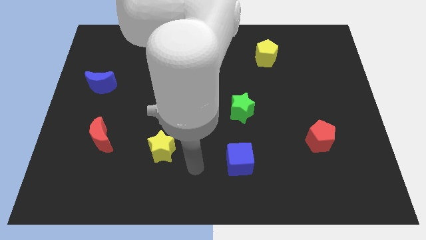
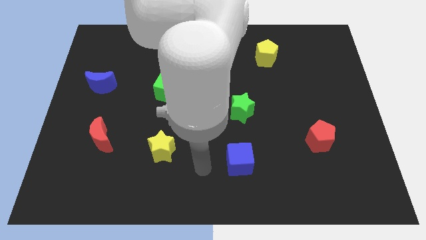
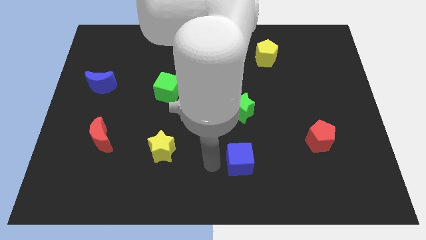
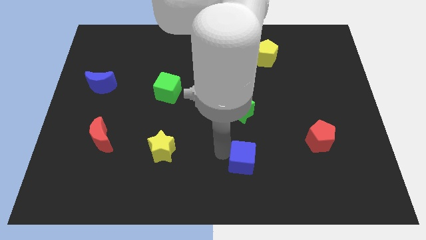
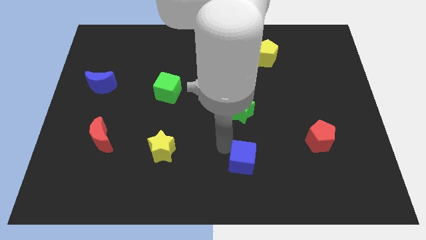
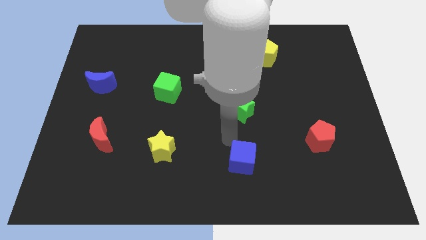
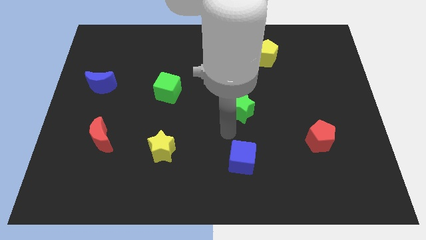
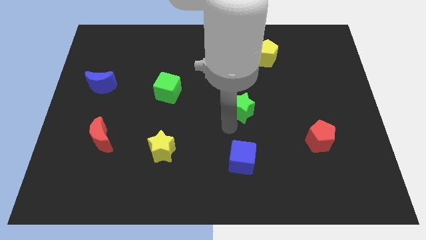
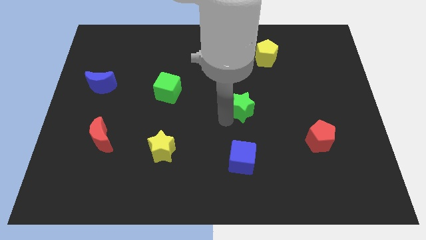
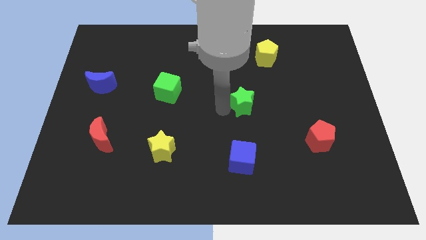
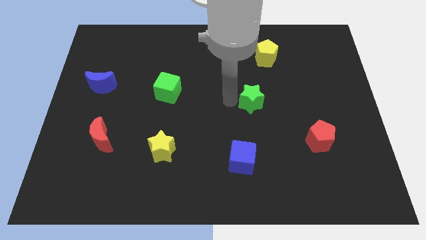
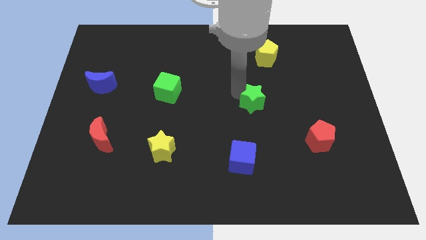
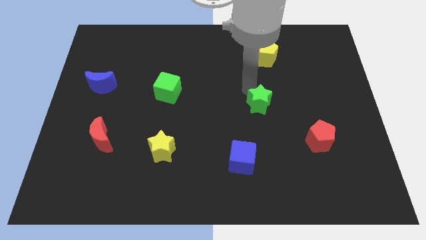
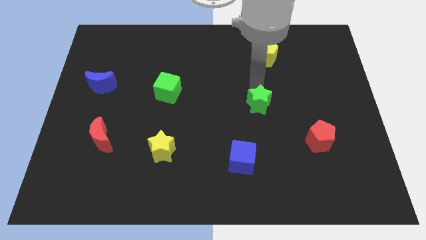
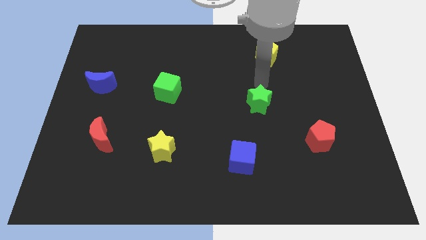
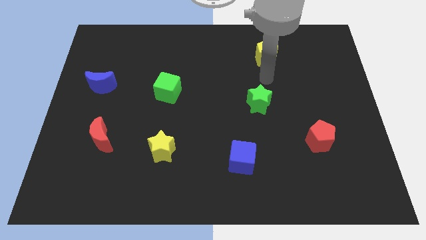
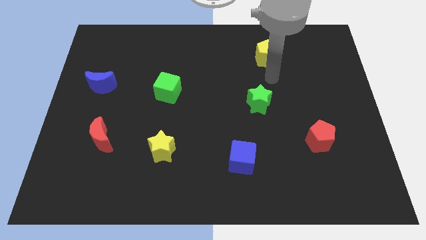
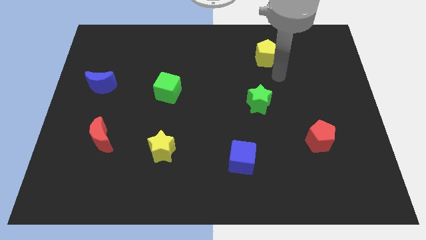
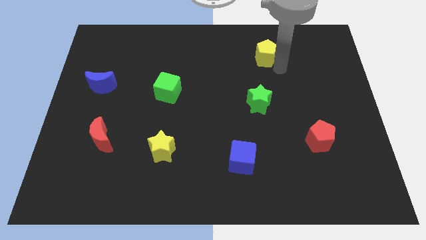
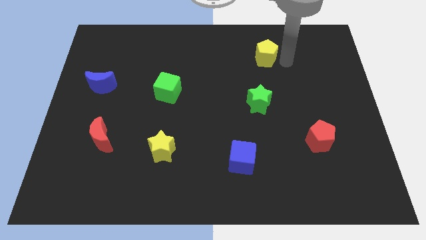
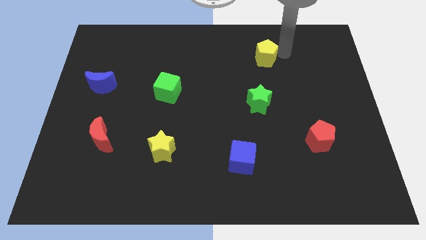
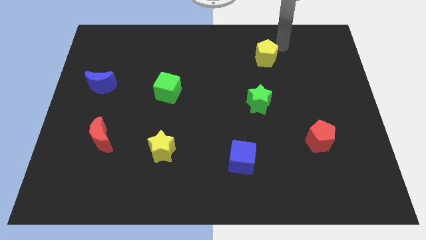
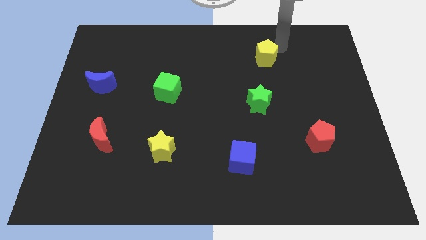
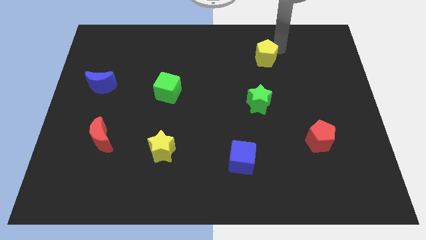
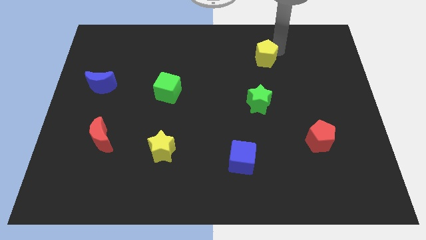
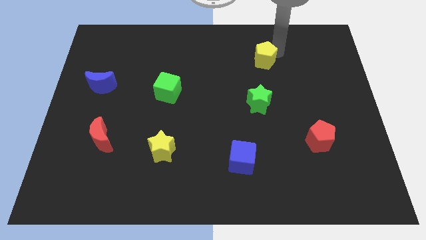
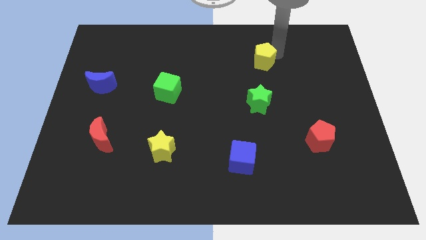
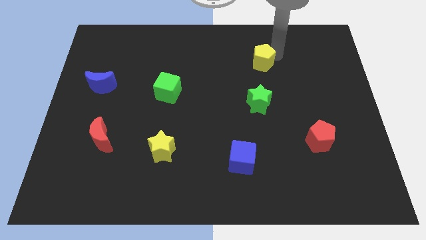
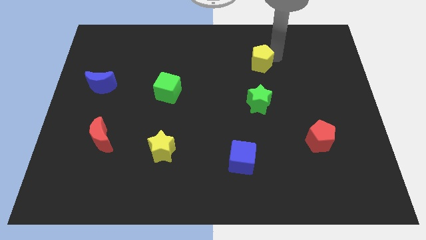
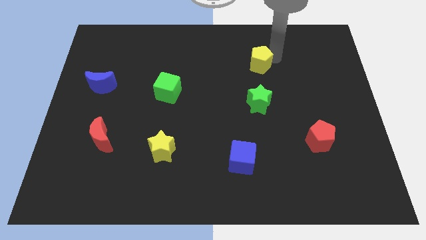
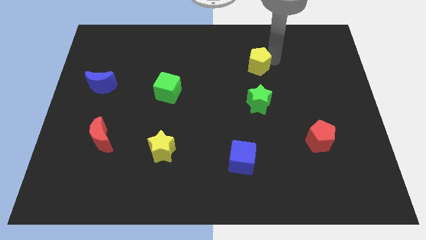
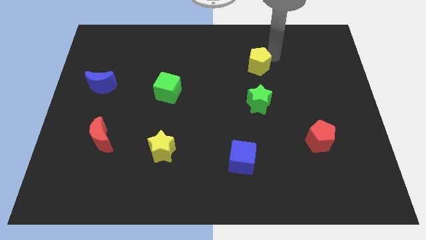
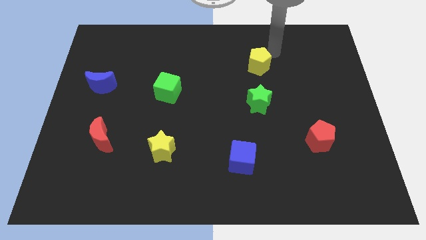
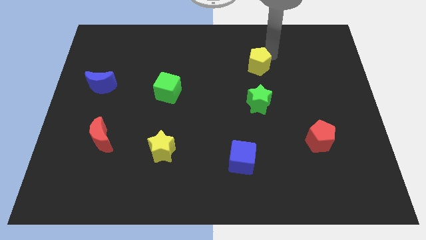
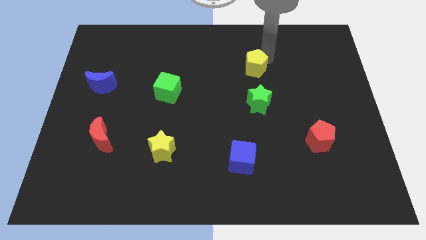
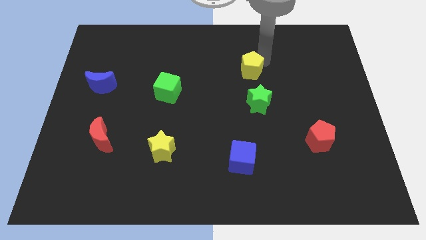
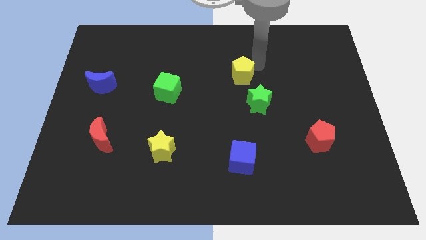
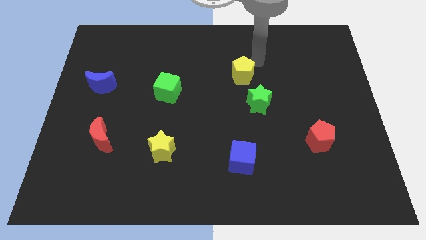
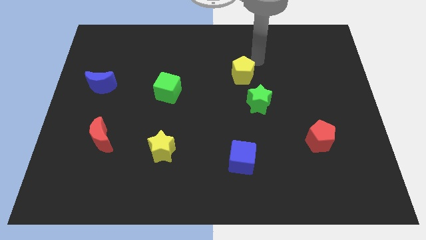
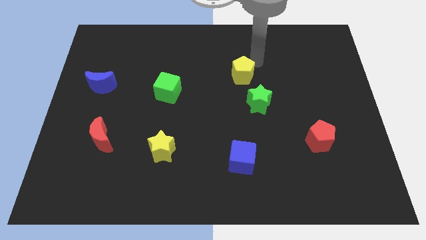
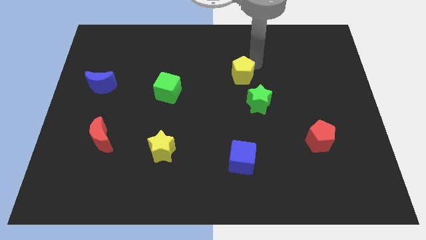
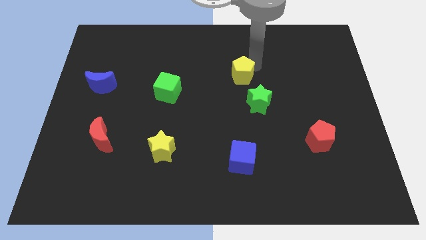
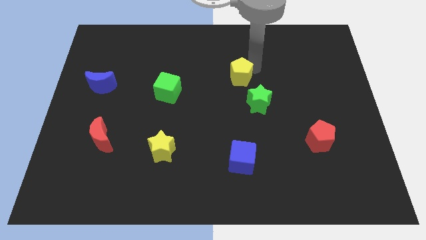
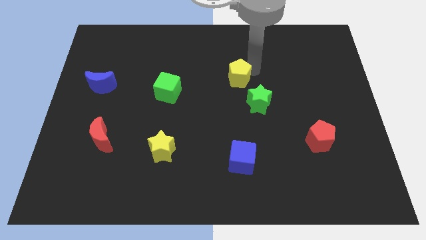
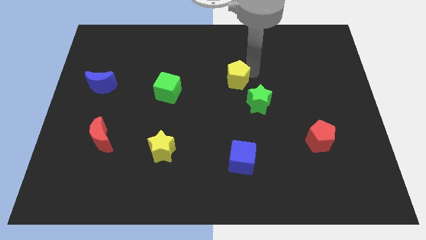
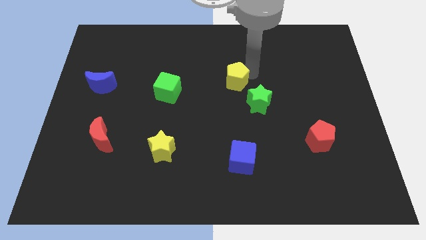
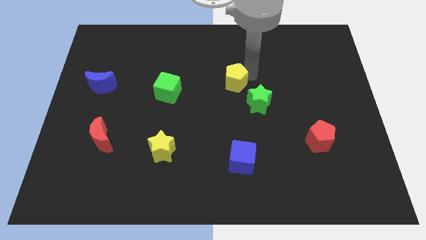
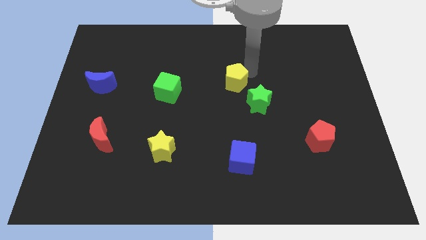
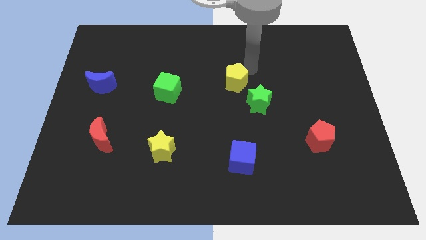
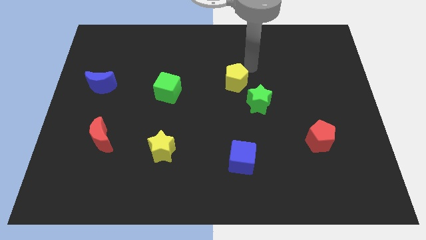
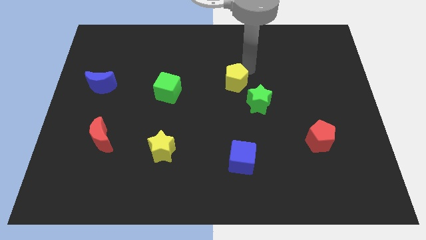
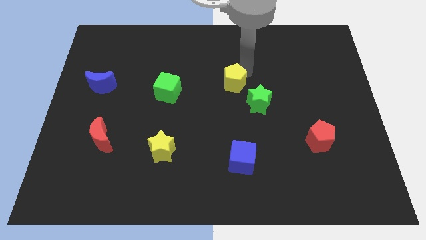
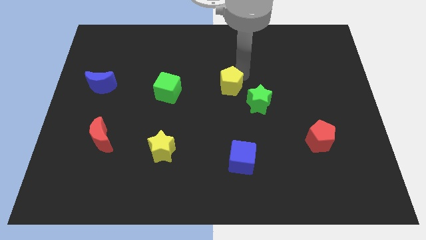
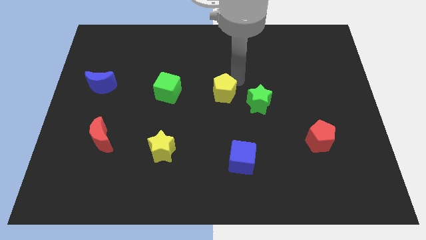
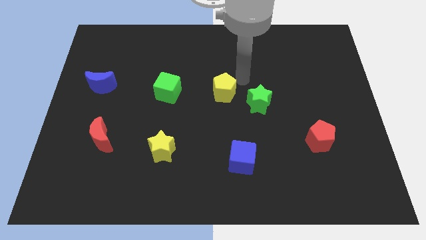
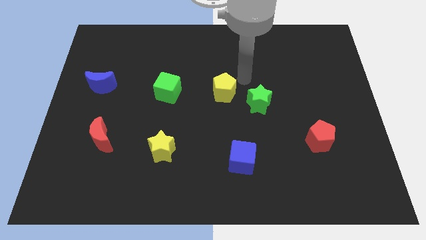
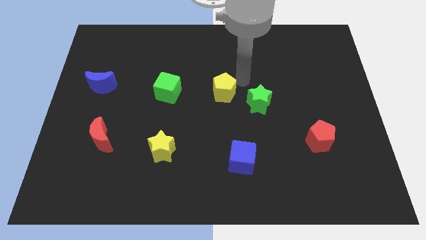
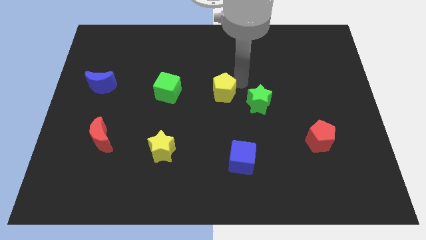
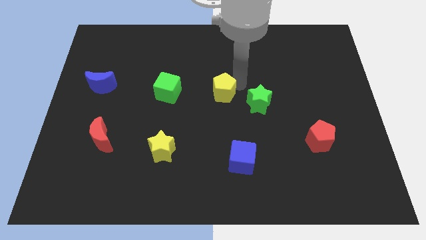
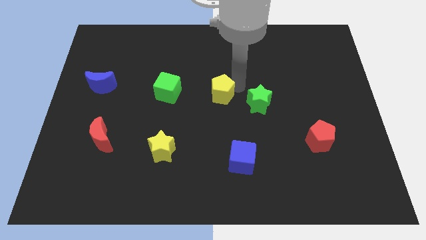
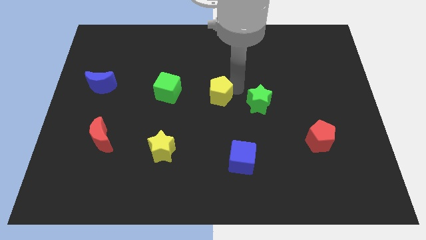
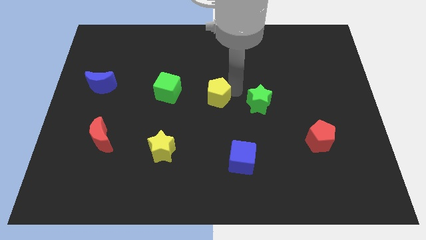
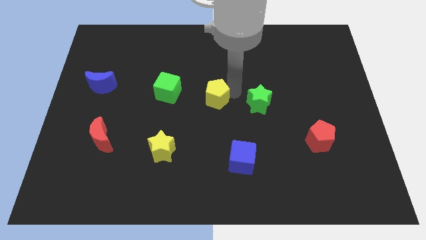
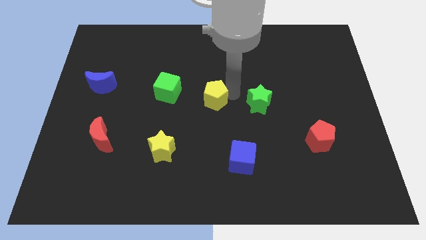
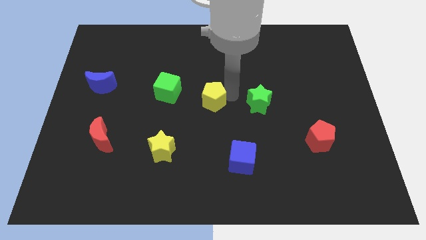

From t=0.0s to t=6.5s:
push the yellow pentagon downwards and to the left diagonally

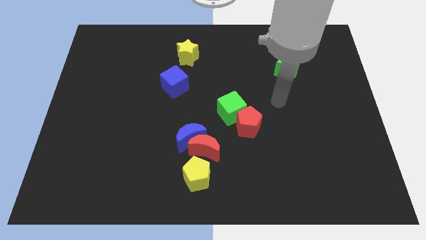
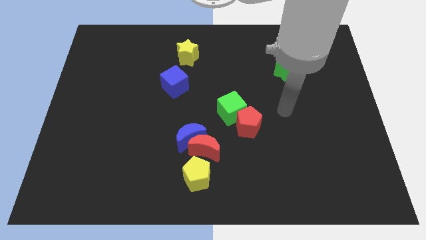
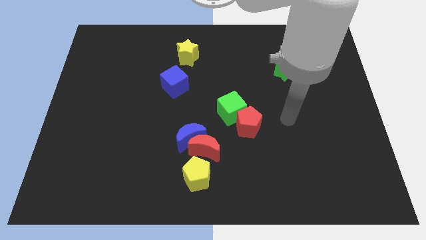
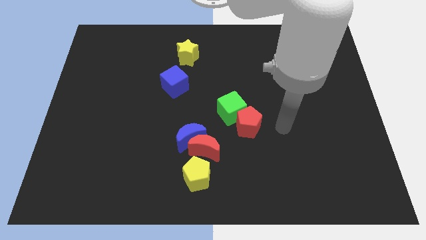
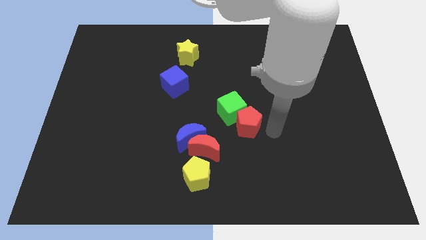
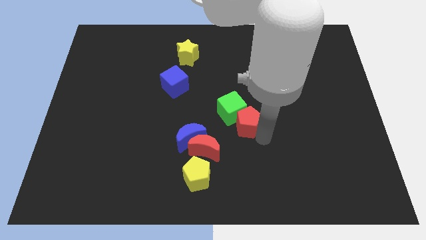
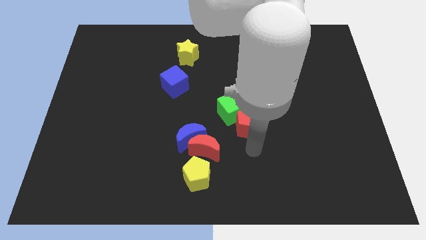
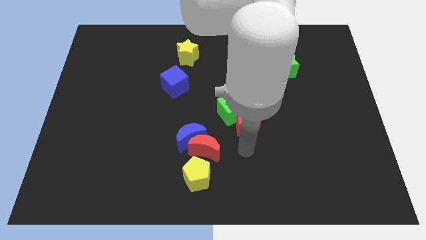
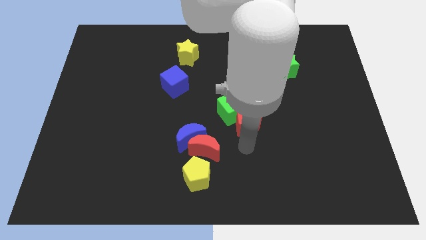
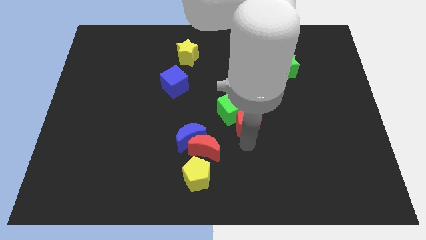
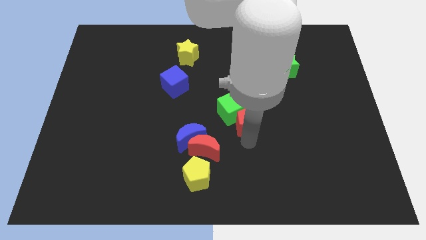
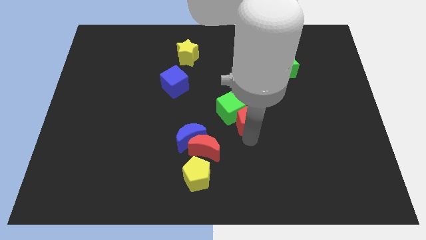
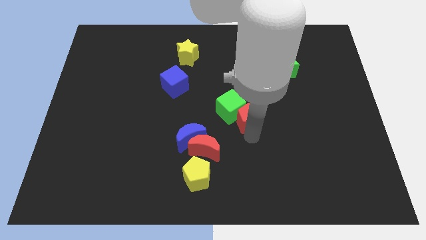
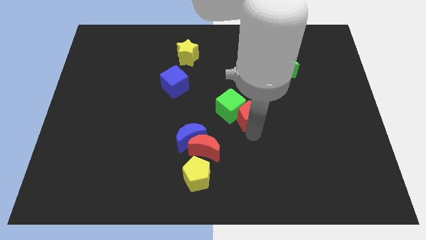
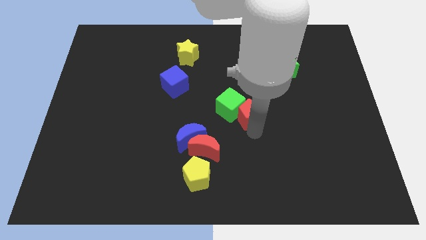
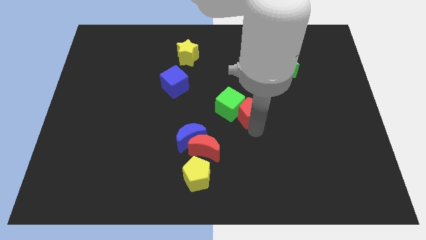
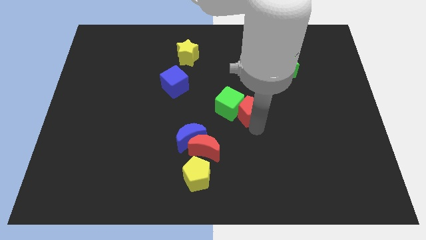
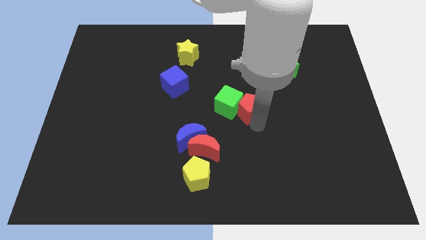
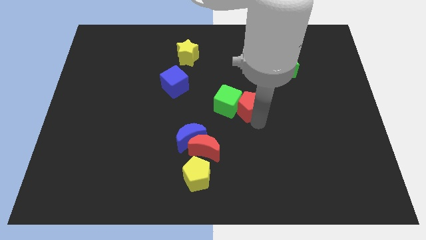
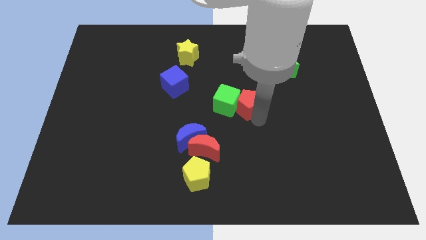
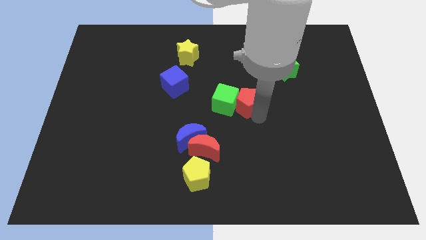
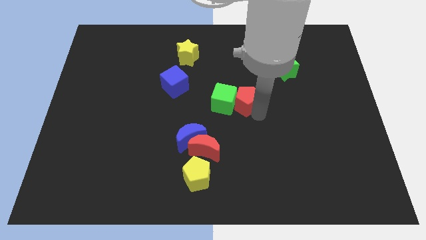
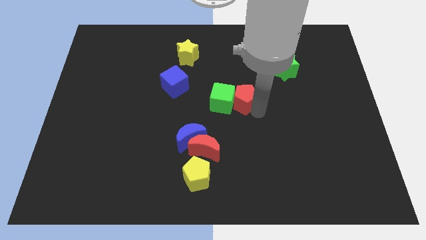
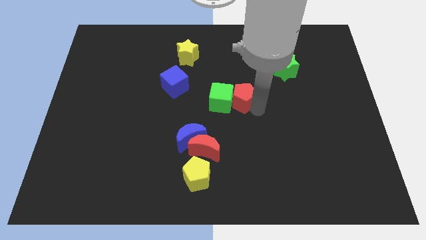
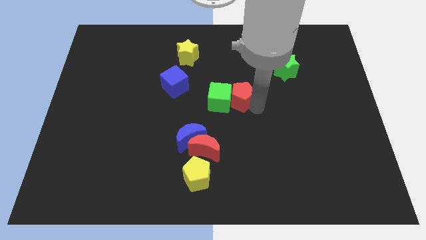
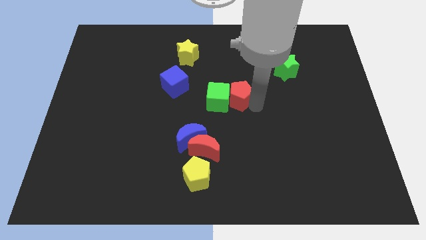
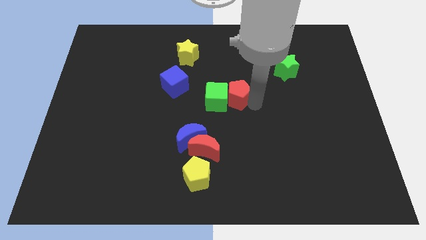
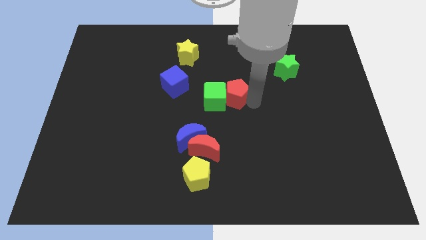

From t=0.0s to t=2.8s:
push the red pentagon a little bit diagonally up and left
